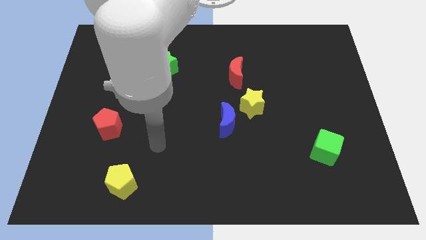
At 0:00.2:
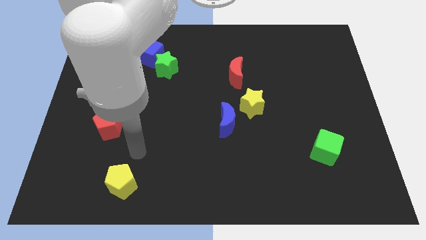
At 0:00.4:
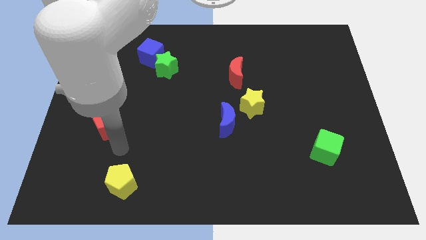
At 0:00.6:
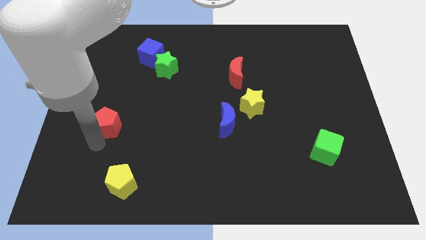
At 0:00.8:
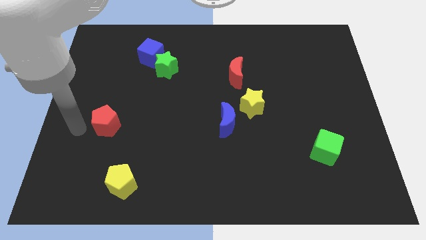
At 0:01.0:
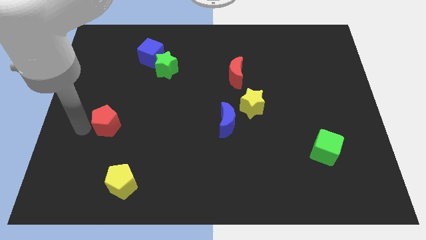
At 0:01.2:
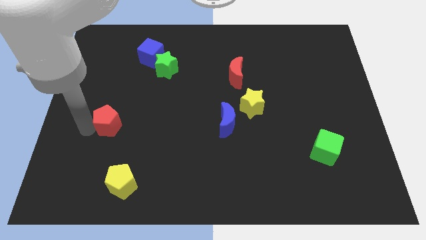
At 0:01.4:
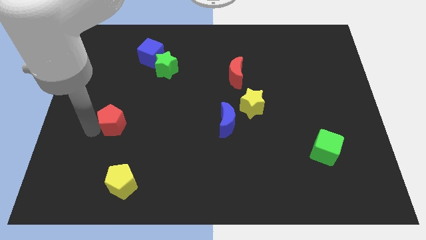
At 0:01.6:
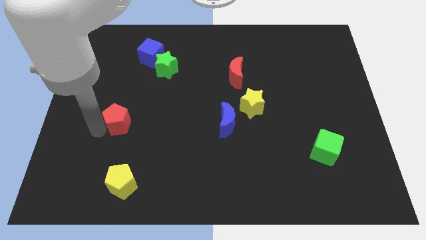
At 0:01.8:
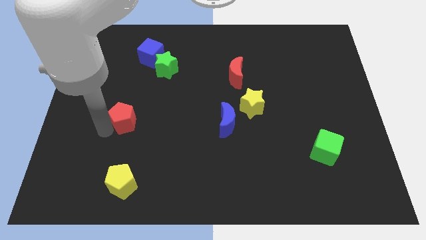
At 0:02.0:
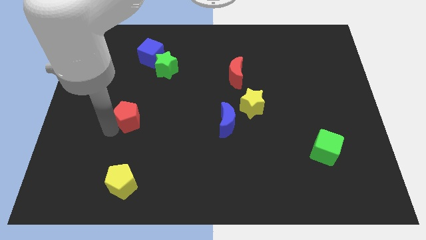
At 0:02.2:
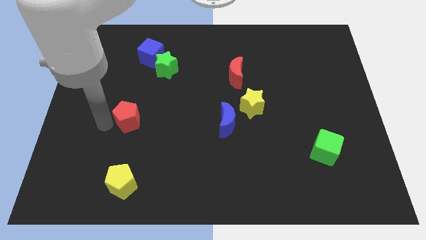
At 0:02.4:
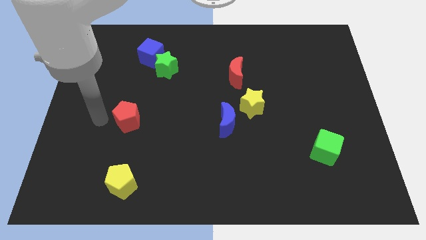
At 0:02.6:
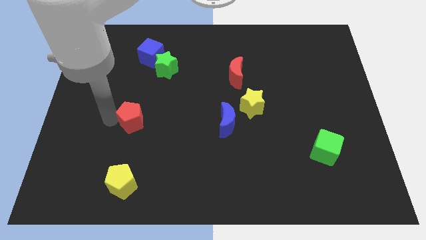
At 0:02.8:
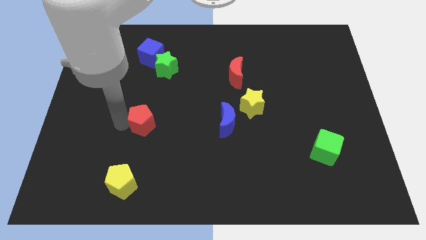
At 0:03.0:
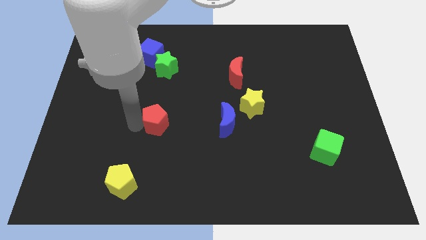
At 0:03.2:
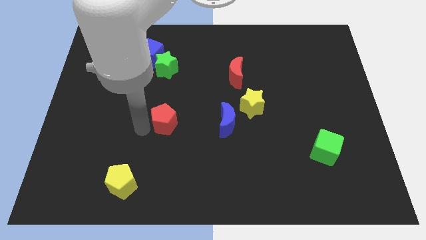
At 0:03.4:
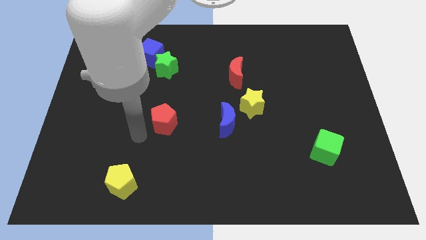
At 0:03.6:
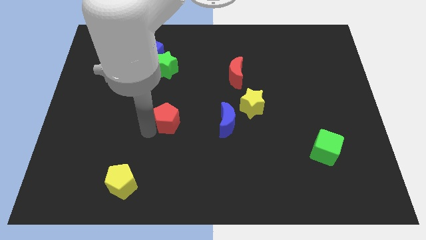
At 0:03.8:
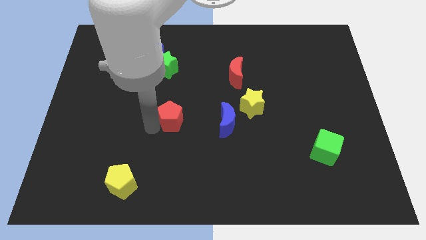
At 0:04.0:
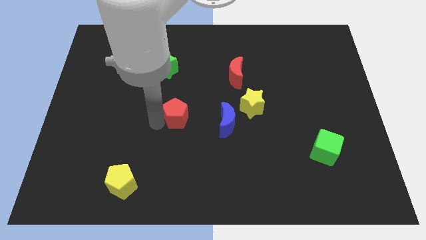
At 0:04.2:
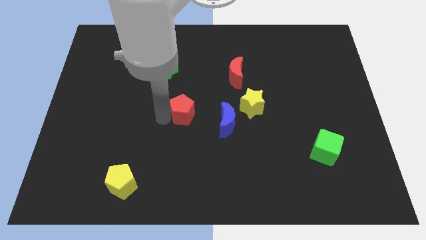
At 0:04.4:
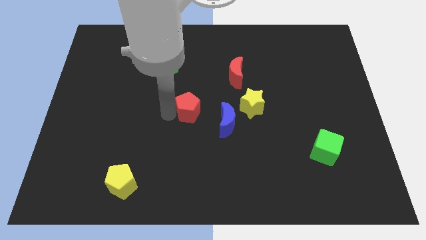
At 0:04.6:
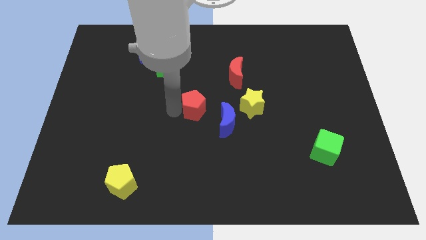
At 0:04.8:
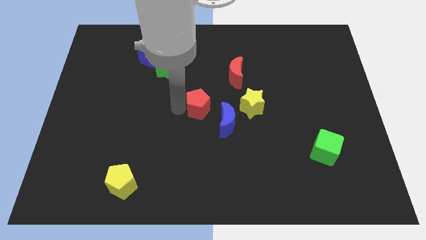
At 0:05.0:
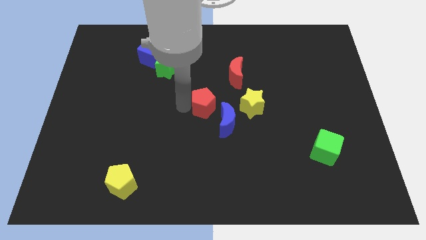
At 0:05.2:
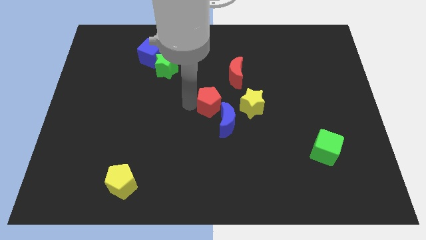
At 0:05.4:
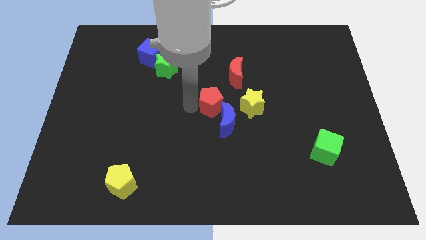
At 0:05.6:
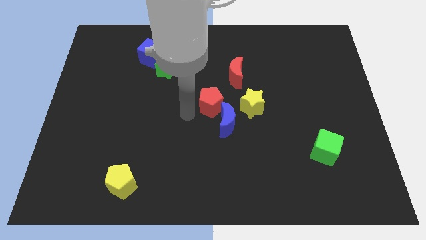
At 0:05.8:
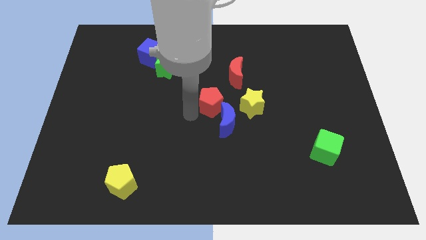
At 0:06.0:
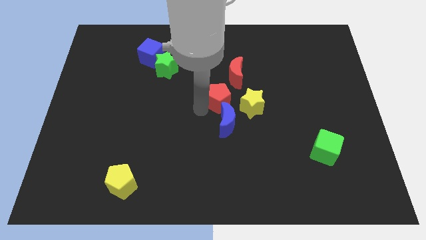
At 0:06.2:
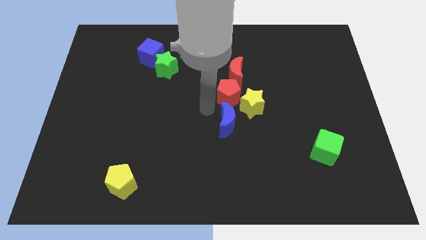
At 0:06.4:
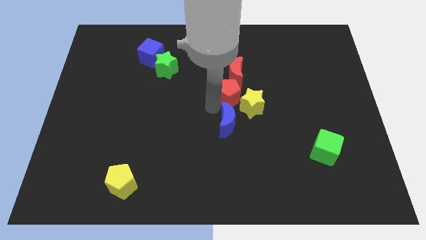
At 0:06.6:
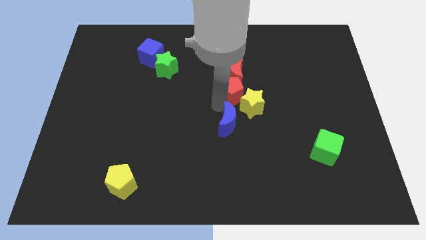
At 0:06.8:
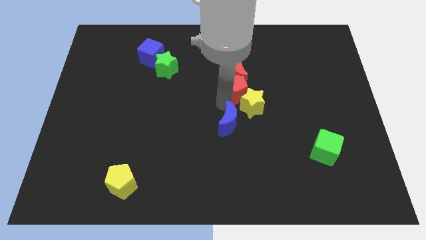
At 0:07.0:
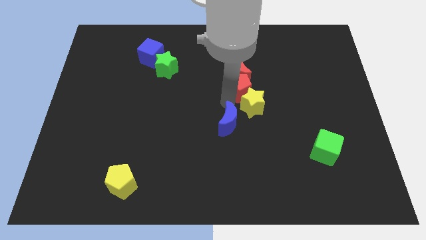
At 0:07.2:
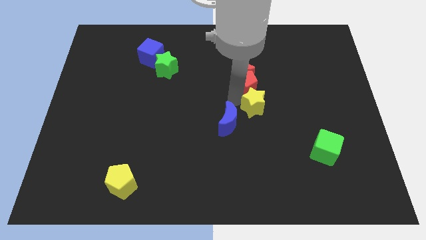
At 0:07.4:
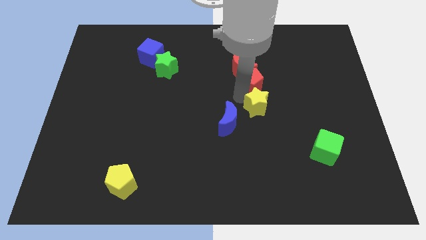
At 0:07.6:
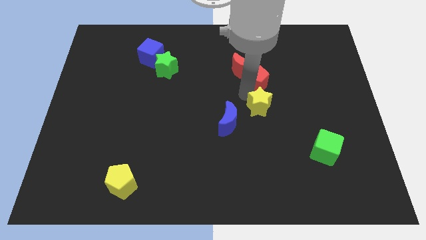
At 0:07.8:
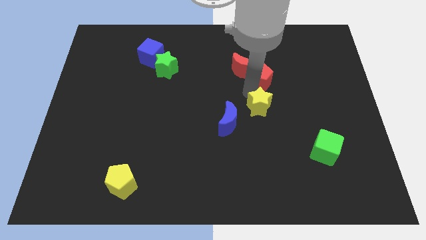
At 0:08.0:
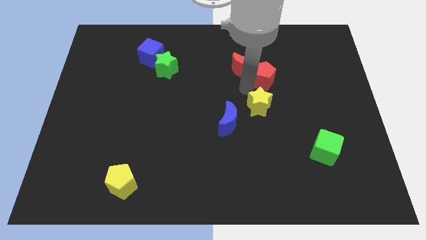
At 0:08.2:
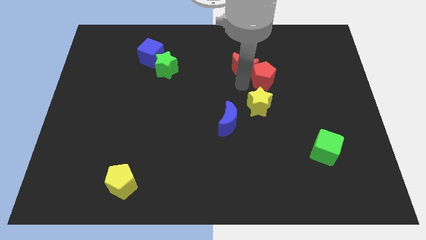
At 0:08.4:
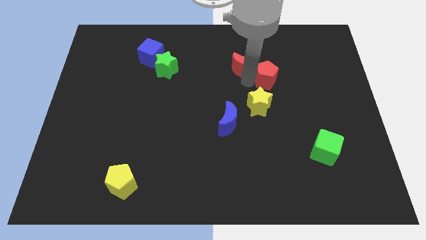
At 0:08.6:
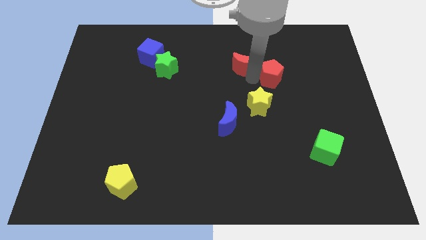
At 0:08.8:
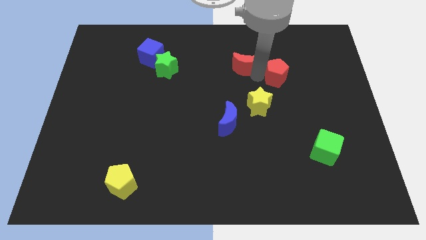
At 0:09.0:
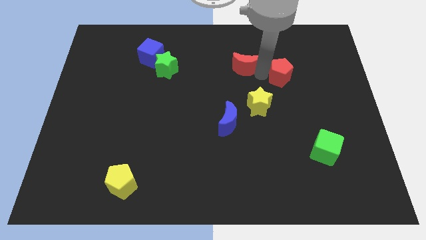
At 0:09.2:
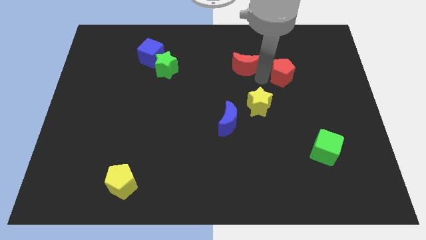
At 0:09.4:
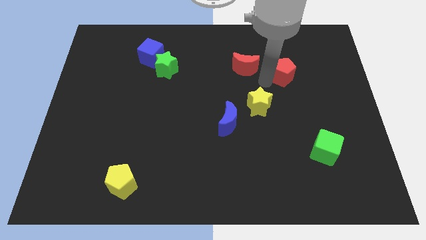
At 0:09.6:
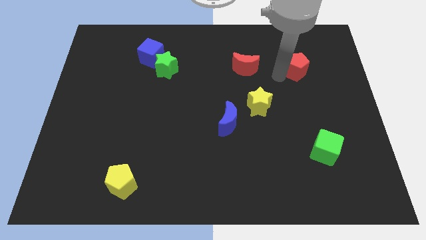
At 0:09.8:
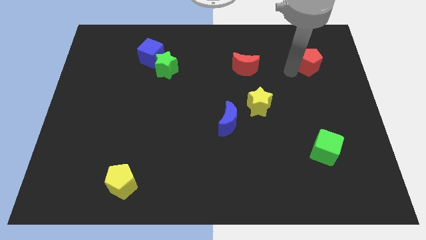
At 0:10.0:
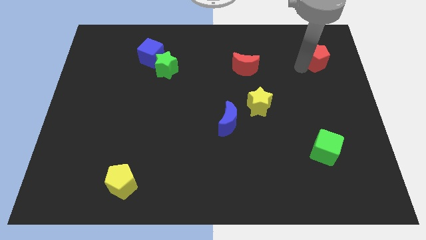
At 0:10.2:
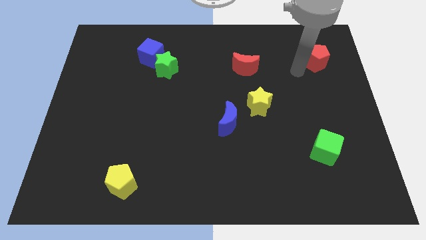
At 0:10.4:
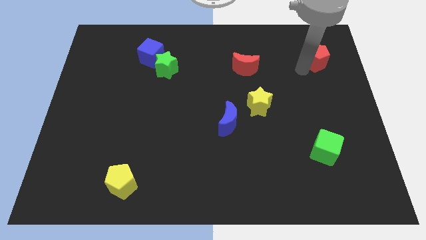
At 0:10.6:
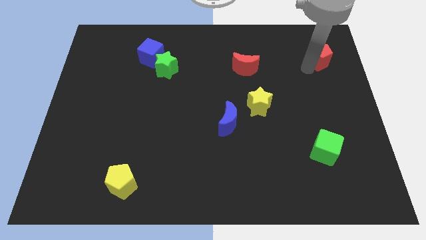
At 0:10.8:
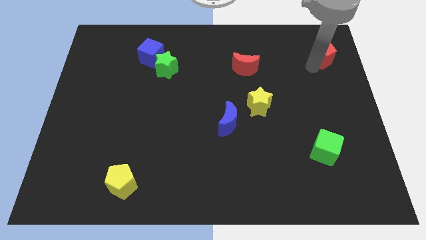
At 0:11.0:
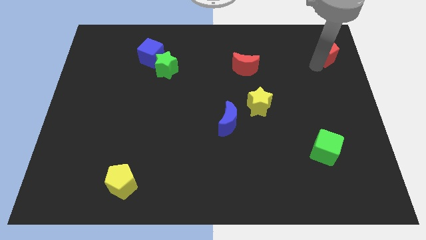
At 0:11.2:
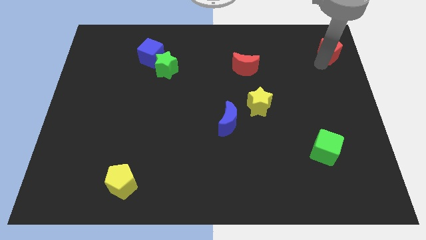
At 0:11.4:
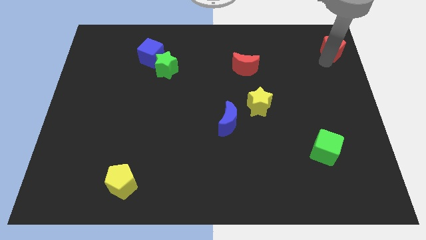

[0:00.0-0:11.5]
put the red pentagon to the top right of the board
